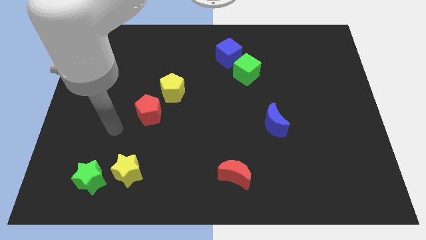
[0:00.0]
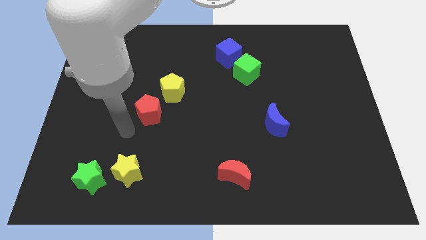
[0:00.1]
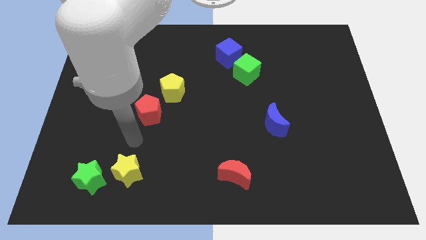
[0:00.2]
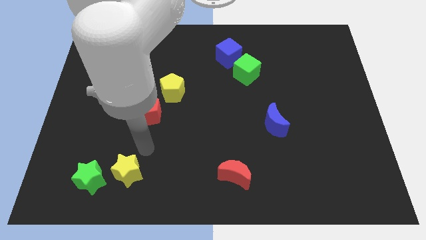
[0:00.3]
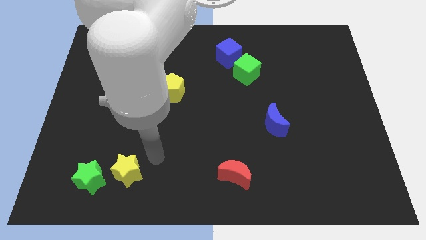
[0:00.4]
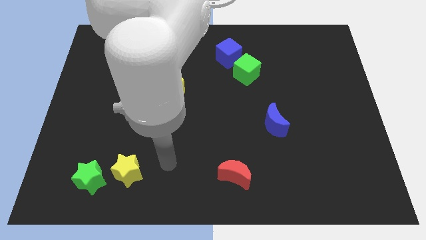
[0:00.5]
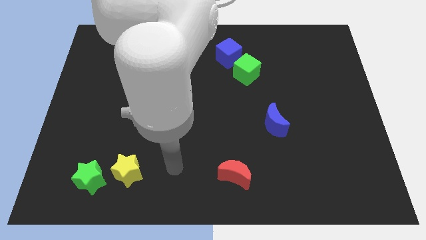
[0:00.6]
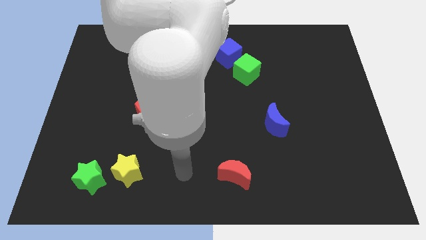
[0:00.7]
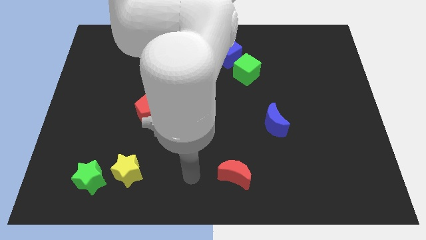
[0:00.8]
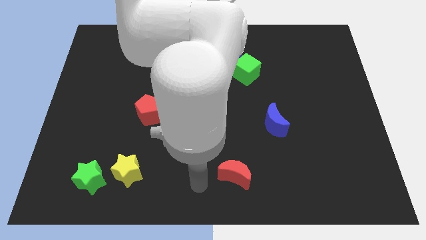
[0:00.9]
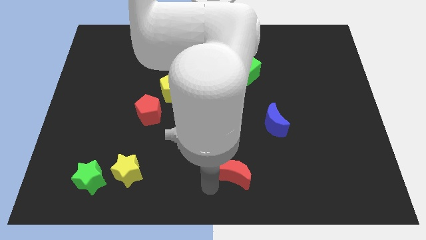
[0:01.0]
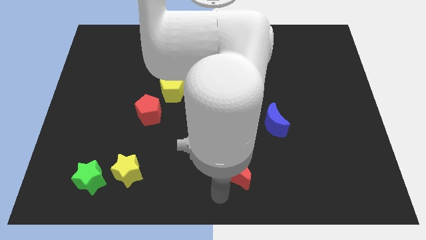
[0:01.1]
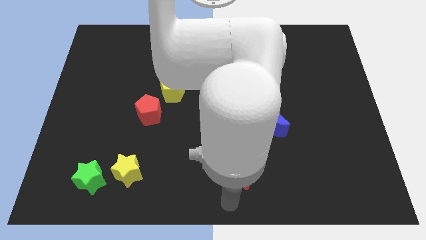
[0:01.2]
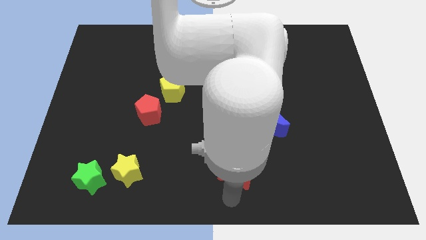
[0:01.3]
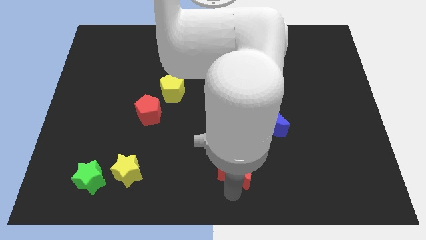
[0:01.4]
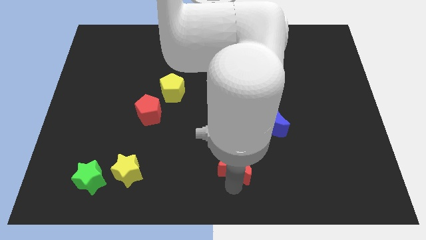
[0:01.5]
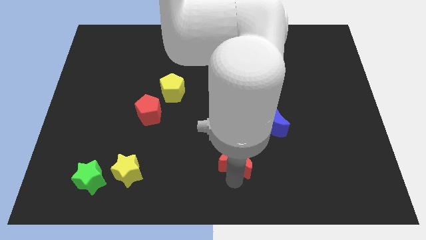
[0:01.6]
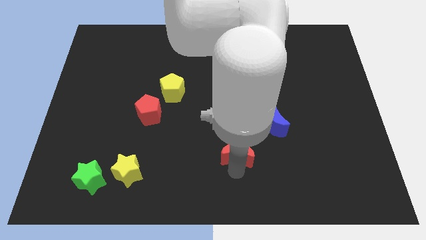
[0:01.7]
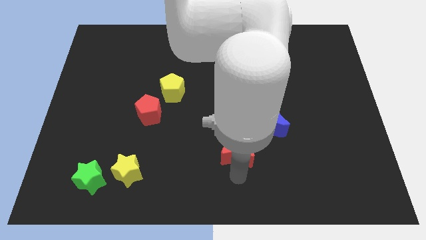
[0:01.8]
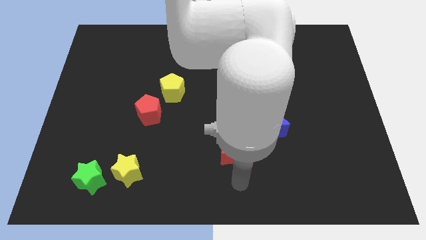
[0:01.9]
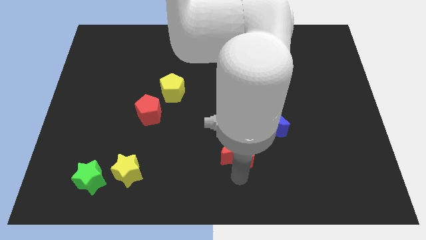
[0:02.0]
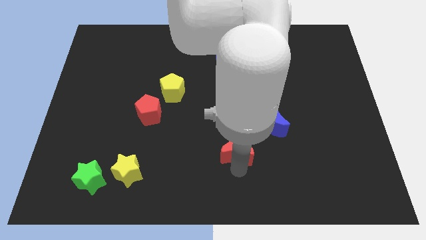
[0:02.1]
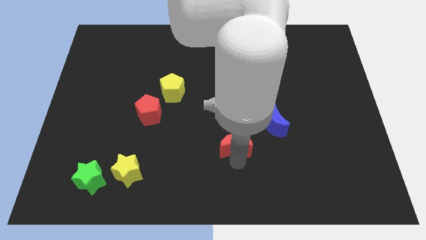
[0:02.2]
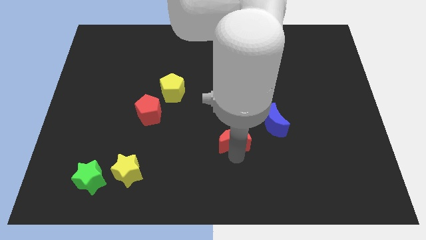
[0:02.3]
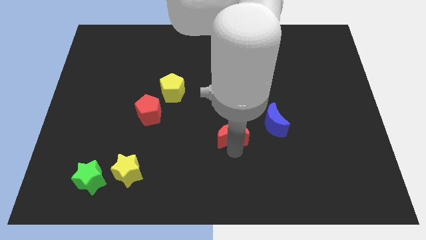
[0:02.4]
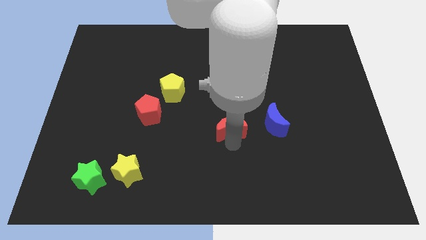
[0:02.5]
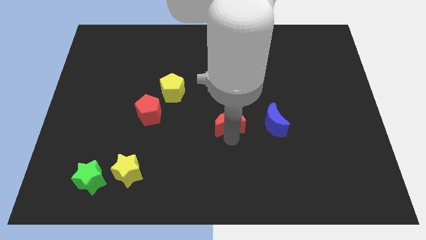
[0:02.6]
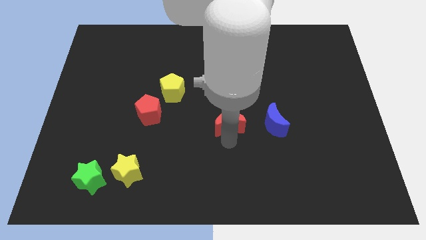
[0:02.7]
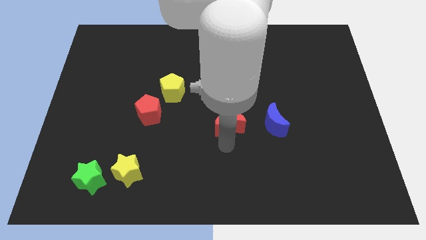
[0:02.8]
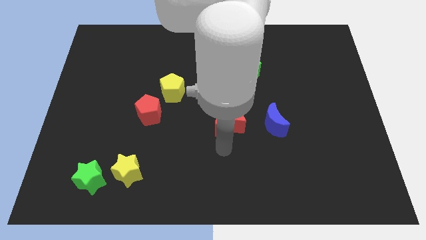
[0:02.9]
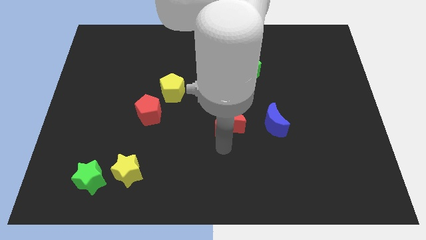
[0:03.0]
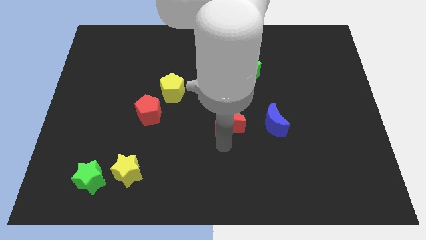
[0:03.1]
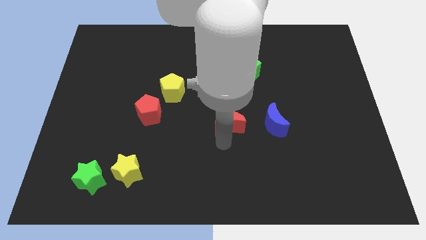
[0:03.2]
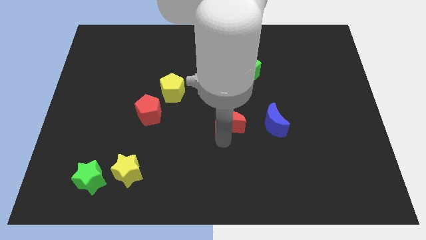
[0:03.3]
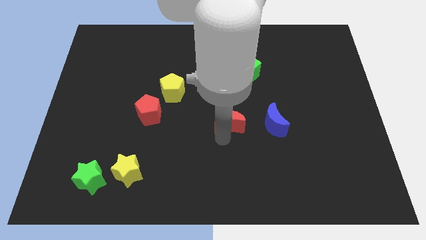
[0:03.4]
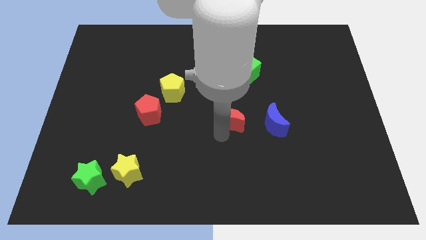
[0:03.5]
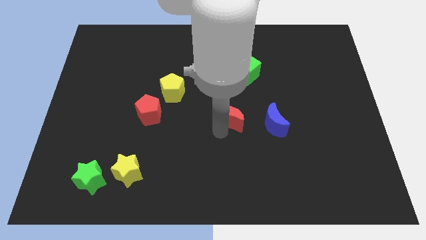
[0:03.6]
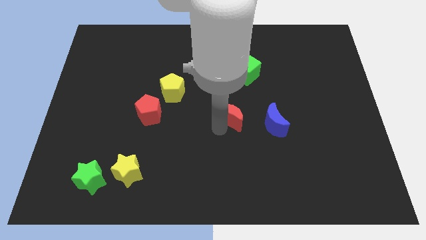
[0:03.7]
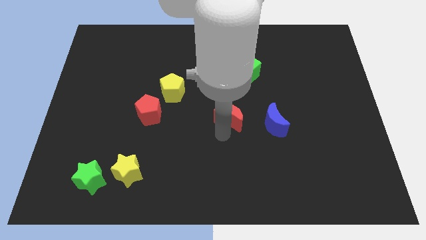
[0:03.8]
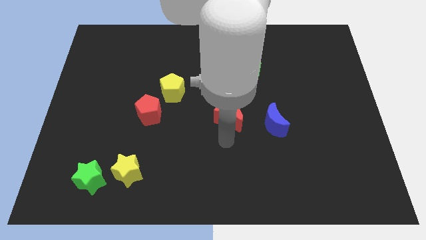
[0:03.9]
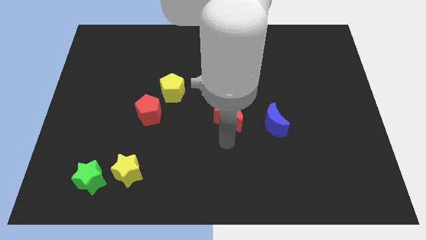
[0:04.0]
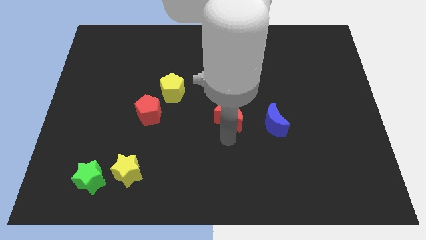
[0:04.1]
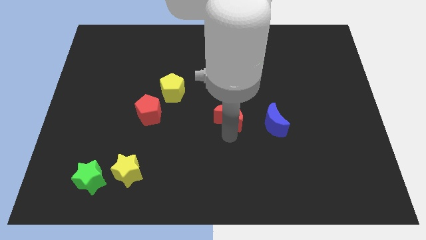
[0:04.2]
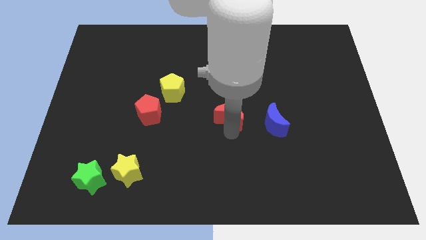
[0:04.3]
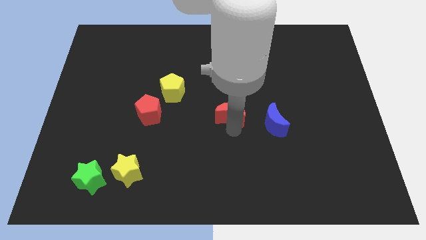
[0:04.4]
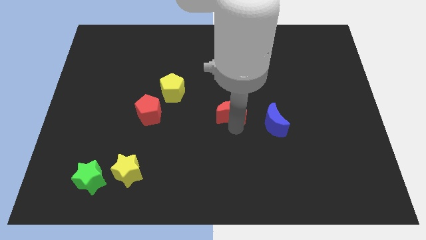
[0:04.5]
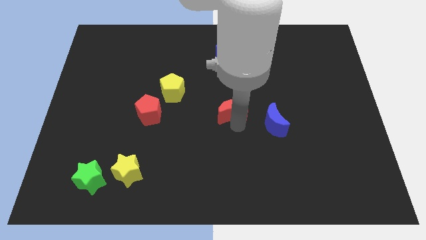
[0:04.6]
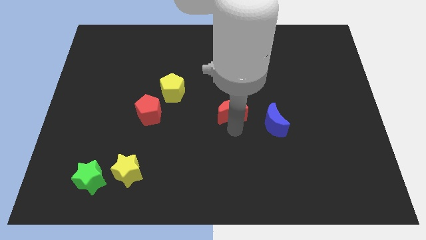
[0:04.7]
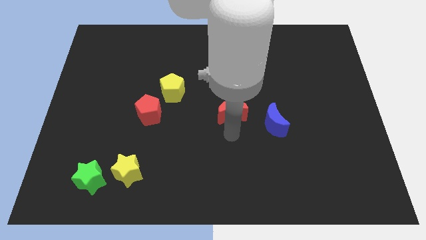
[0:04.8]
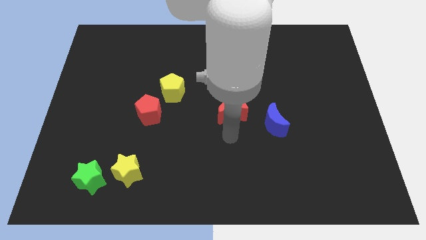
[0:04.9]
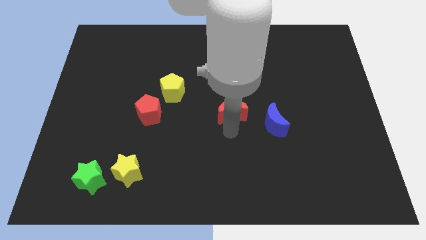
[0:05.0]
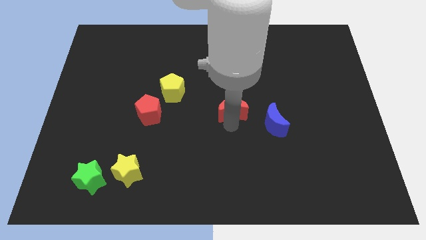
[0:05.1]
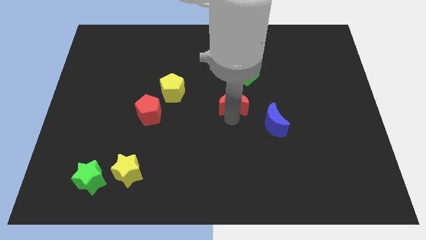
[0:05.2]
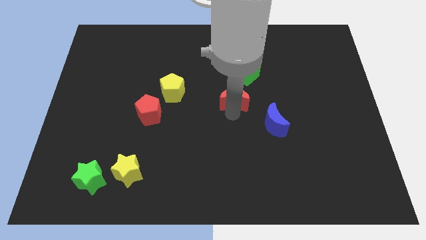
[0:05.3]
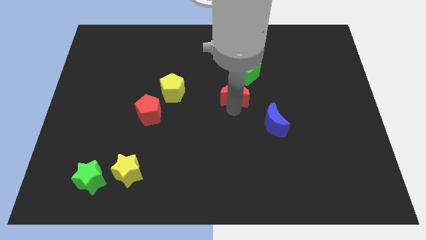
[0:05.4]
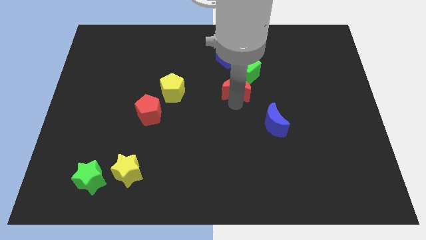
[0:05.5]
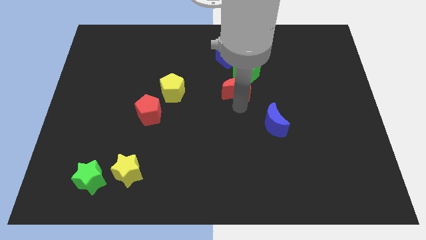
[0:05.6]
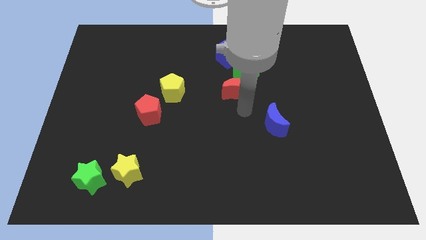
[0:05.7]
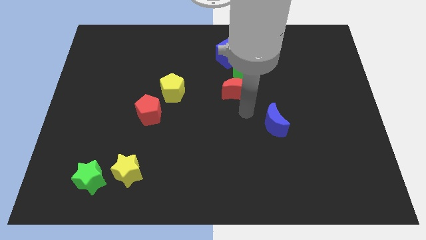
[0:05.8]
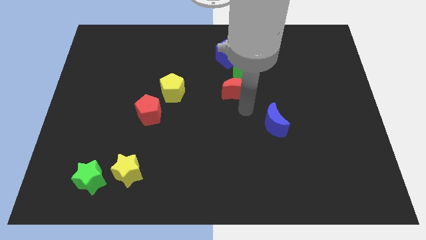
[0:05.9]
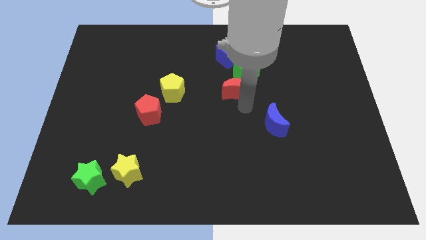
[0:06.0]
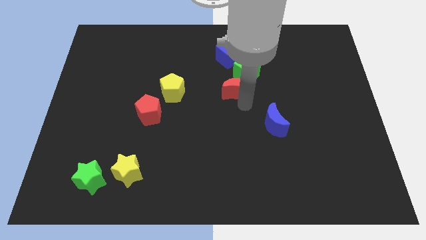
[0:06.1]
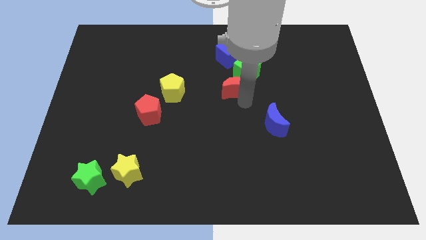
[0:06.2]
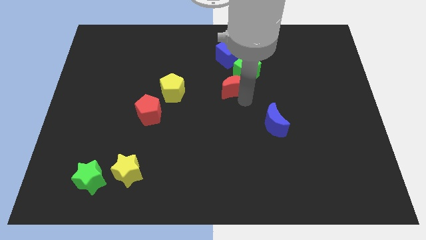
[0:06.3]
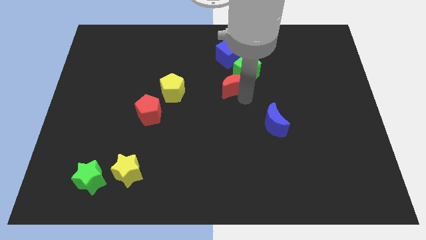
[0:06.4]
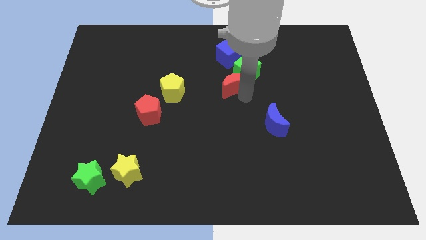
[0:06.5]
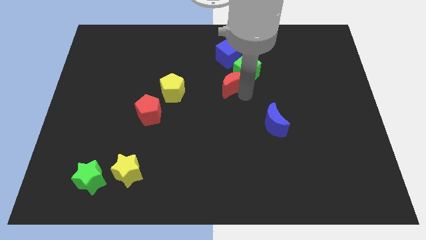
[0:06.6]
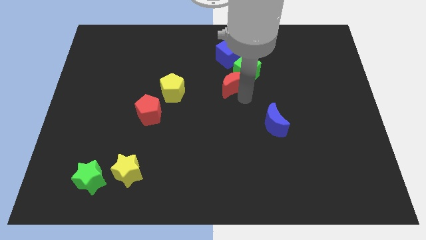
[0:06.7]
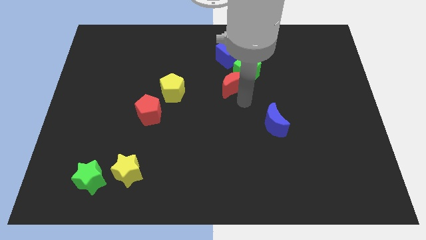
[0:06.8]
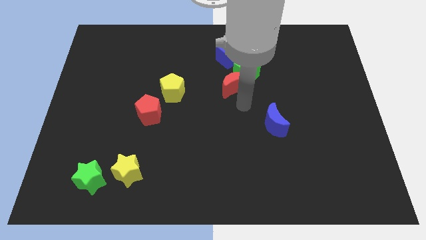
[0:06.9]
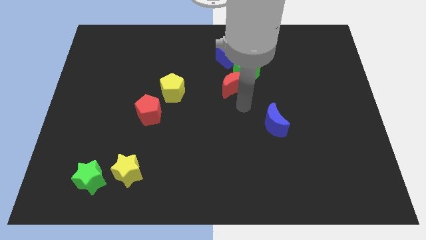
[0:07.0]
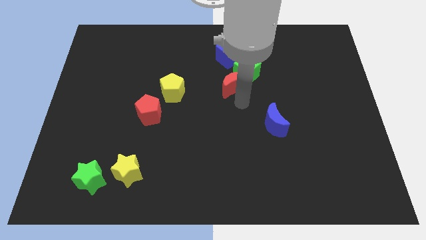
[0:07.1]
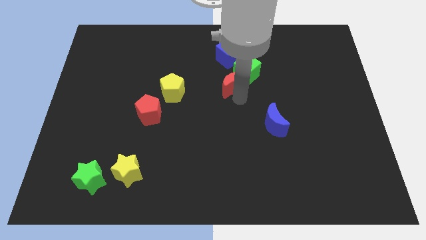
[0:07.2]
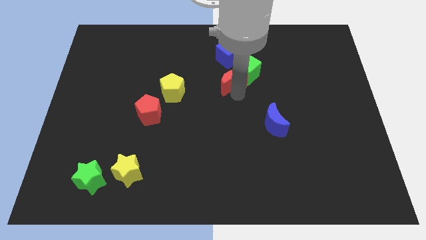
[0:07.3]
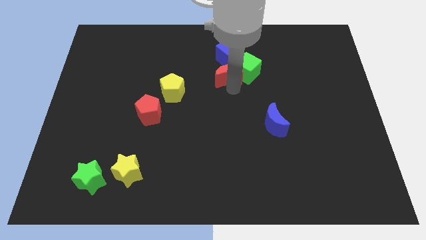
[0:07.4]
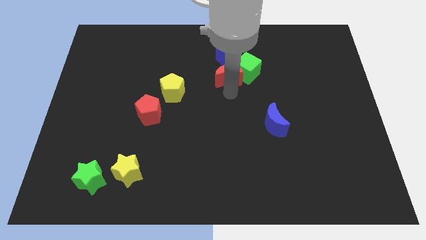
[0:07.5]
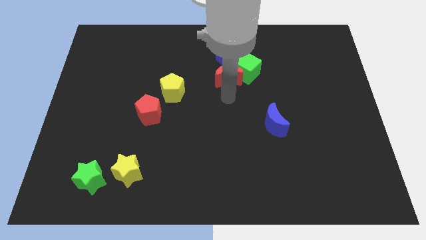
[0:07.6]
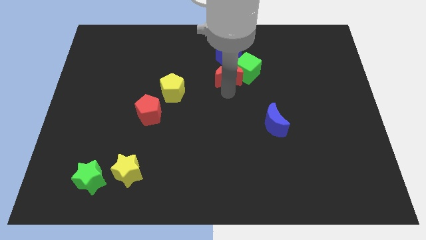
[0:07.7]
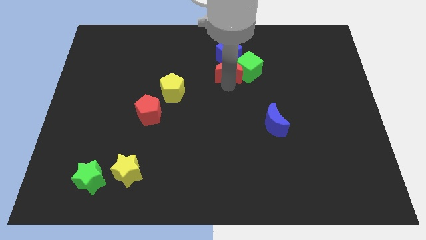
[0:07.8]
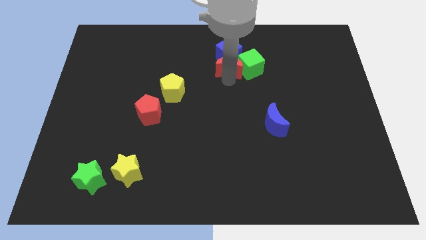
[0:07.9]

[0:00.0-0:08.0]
push the red moon close to the blue cube
